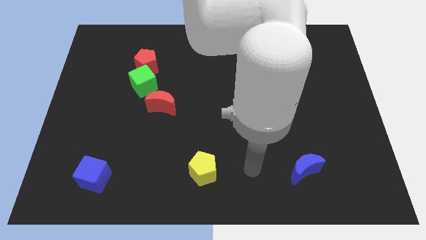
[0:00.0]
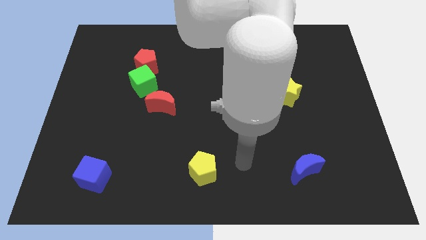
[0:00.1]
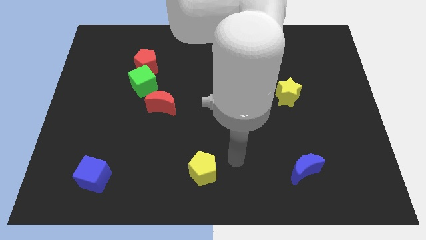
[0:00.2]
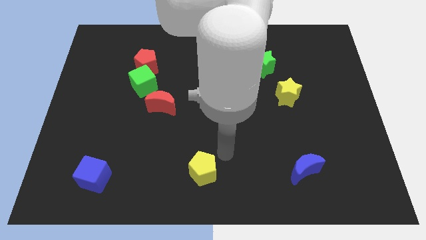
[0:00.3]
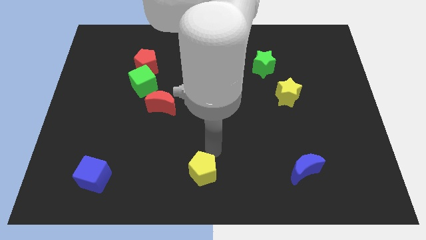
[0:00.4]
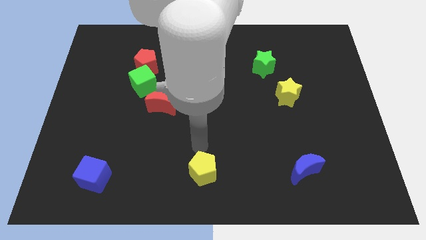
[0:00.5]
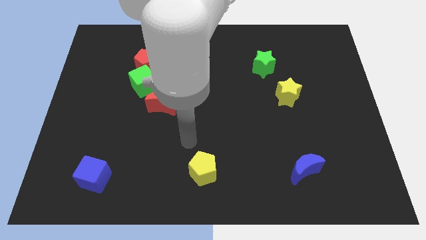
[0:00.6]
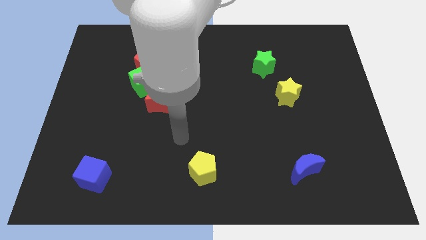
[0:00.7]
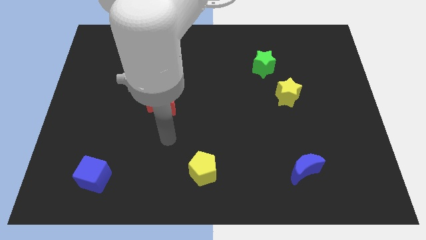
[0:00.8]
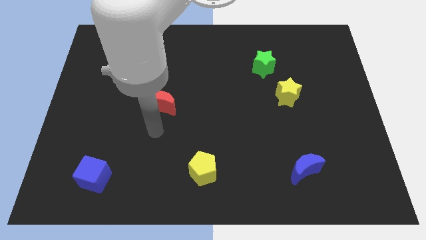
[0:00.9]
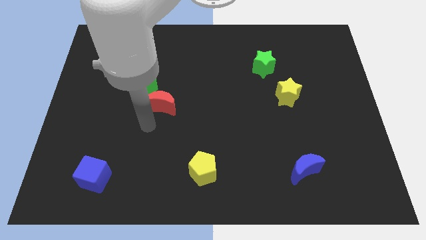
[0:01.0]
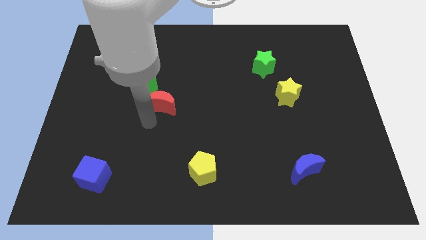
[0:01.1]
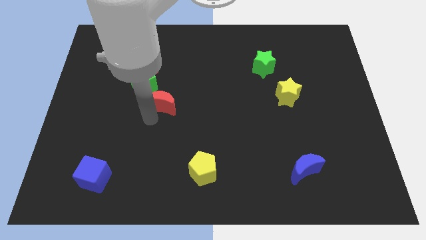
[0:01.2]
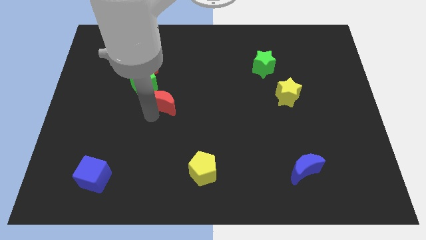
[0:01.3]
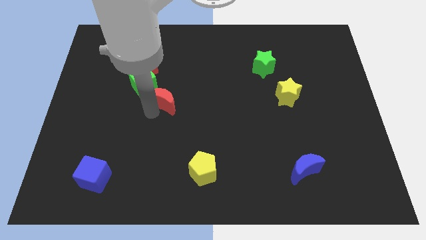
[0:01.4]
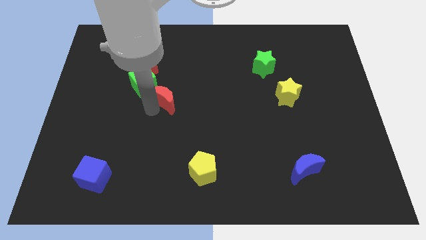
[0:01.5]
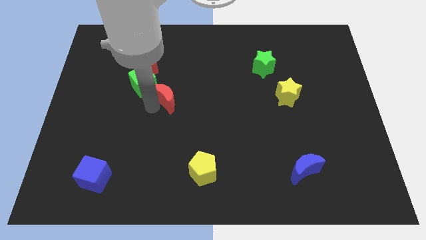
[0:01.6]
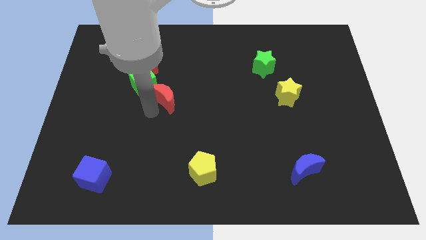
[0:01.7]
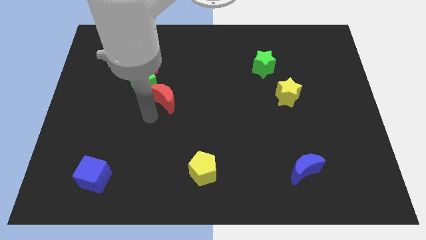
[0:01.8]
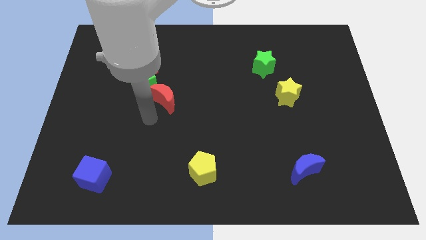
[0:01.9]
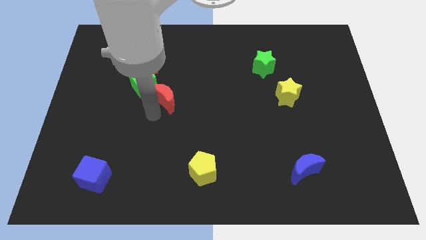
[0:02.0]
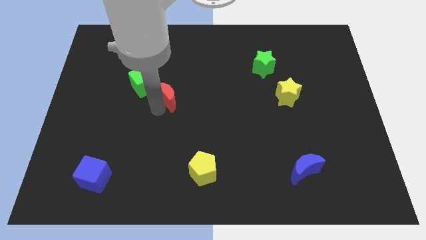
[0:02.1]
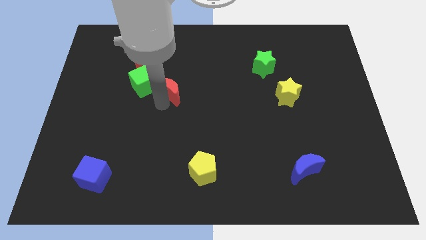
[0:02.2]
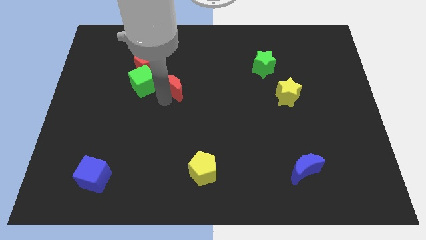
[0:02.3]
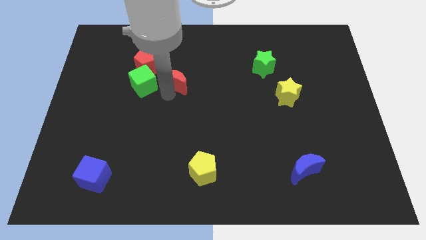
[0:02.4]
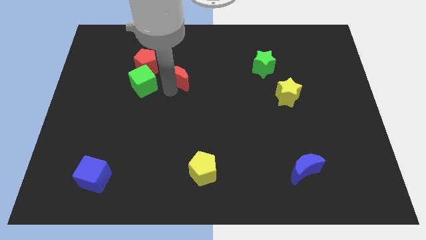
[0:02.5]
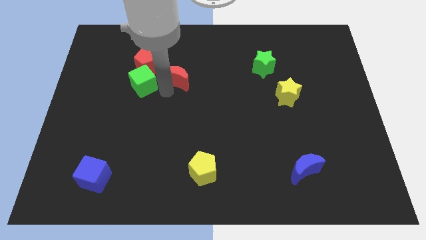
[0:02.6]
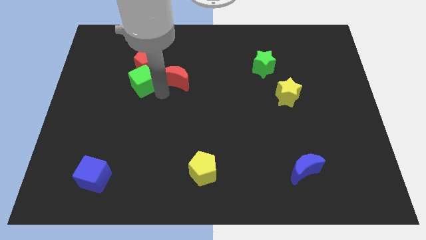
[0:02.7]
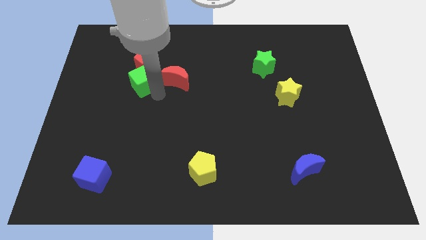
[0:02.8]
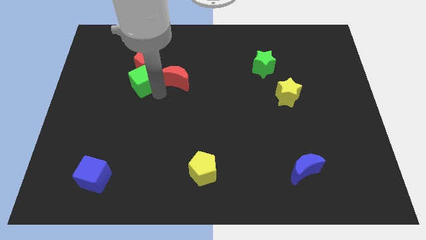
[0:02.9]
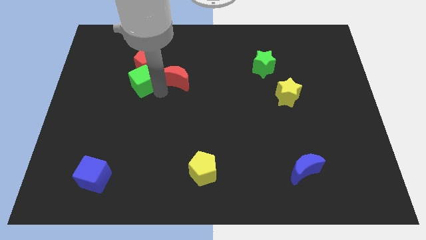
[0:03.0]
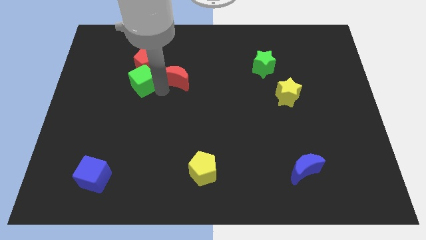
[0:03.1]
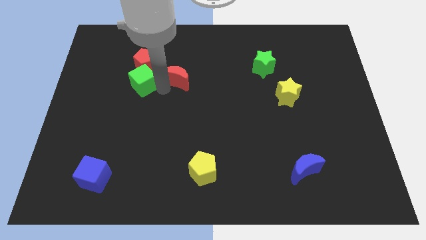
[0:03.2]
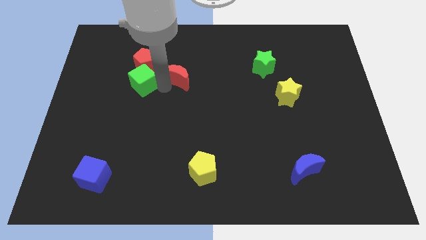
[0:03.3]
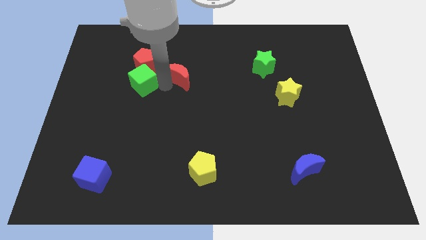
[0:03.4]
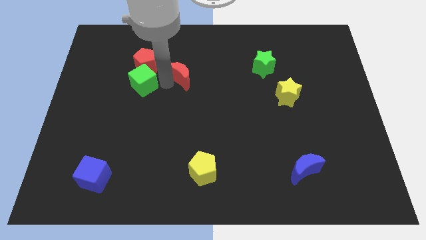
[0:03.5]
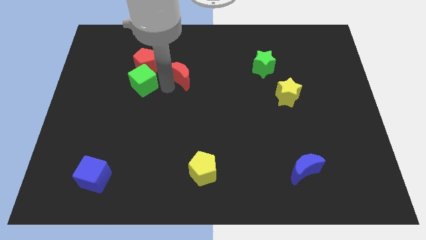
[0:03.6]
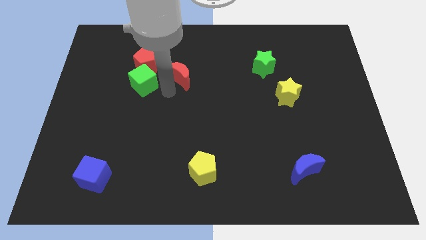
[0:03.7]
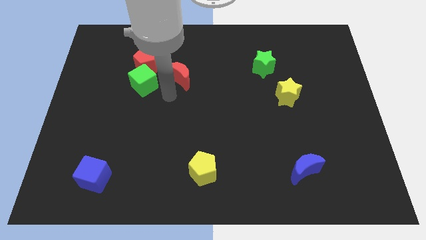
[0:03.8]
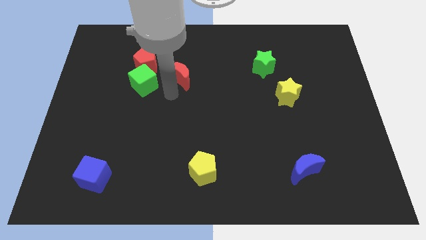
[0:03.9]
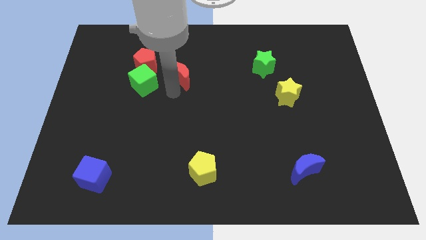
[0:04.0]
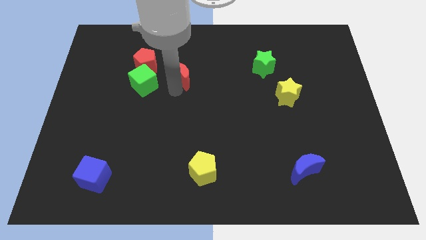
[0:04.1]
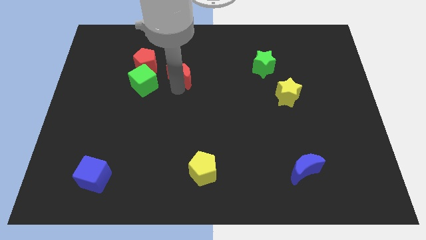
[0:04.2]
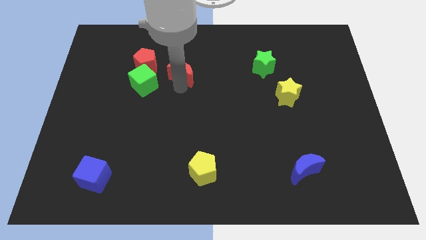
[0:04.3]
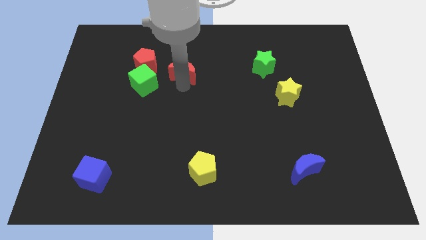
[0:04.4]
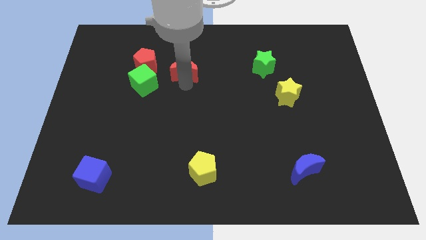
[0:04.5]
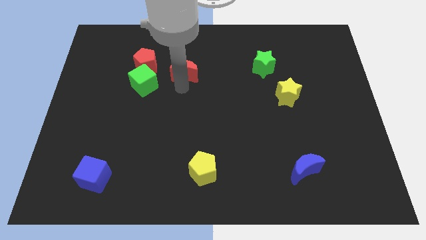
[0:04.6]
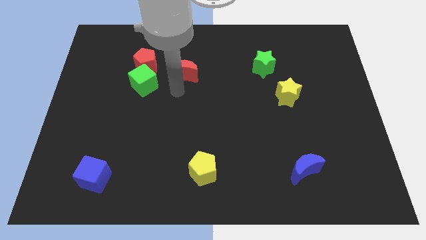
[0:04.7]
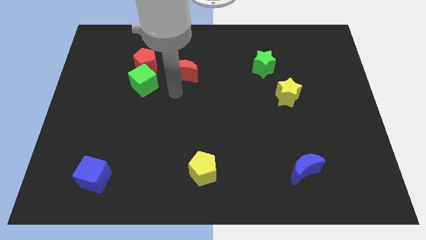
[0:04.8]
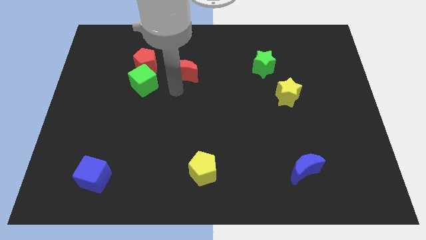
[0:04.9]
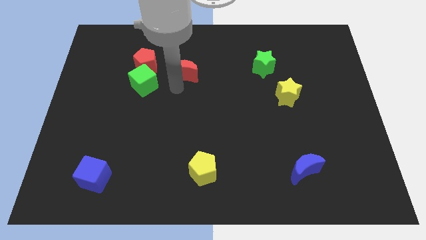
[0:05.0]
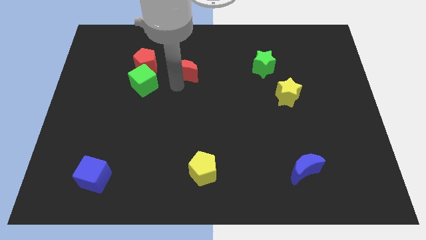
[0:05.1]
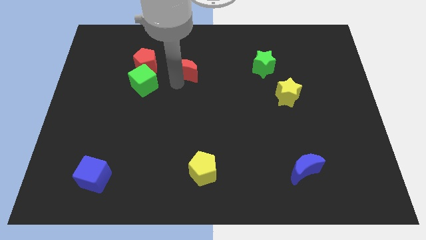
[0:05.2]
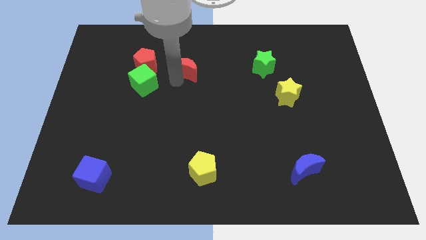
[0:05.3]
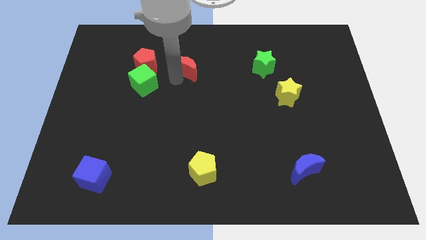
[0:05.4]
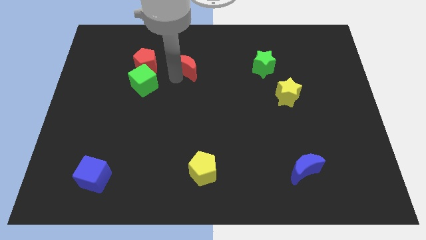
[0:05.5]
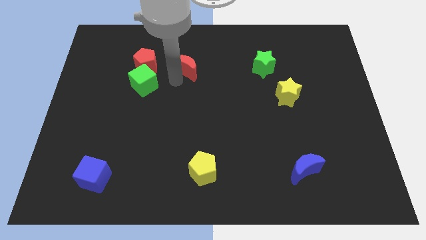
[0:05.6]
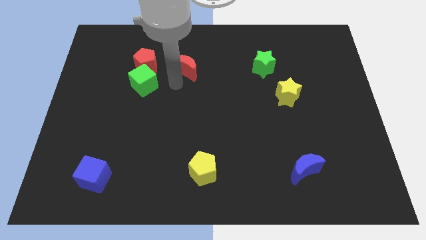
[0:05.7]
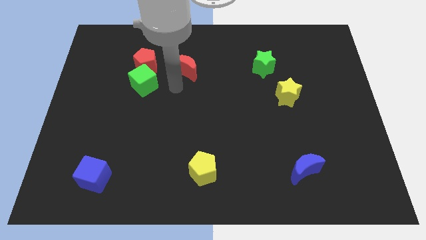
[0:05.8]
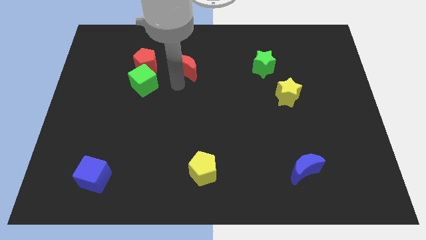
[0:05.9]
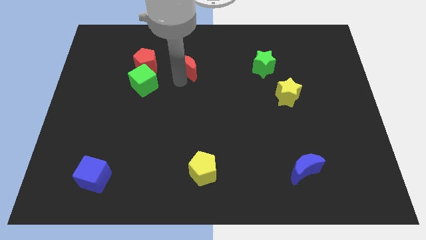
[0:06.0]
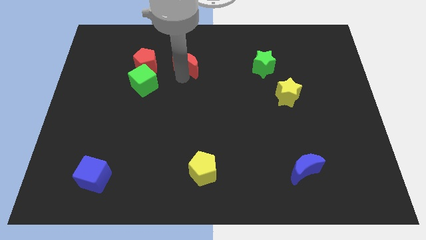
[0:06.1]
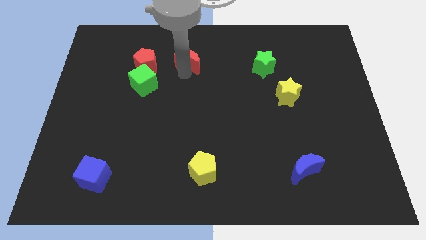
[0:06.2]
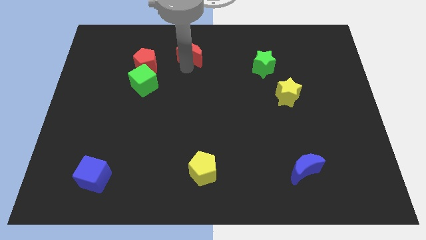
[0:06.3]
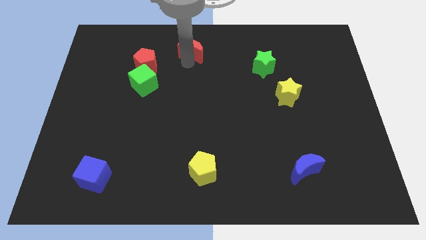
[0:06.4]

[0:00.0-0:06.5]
move the red moon to the towards your base

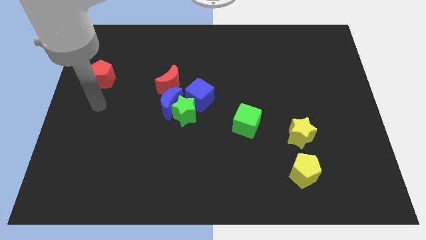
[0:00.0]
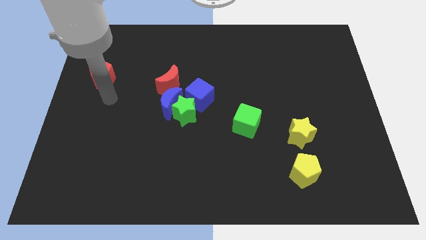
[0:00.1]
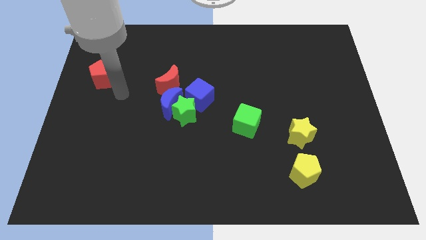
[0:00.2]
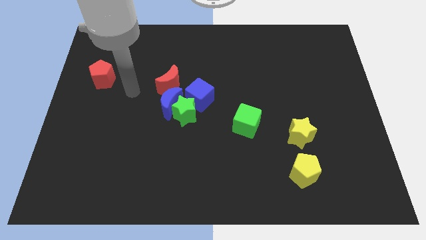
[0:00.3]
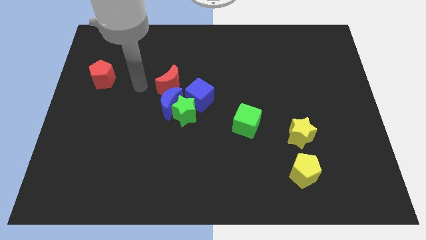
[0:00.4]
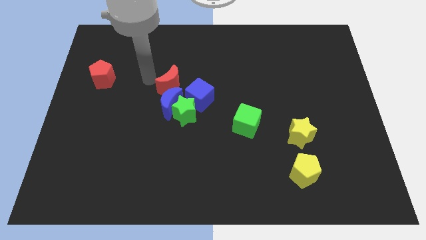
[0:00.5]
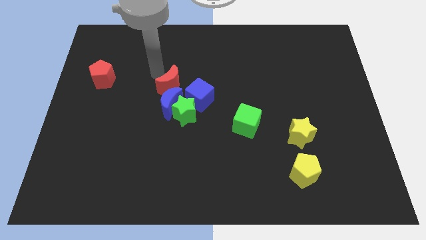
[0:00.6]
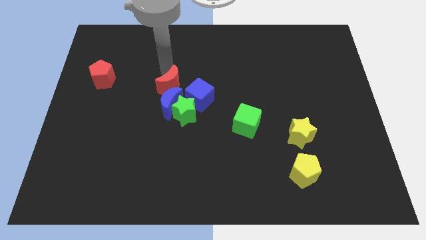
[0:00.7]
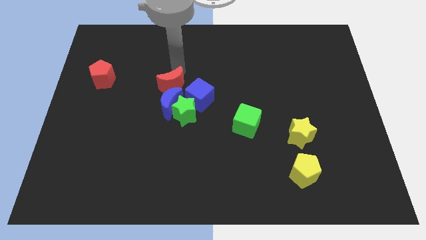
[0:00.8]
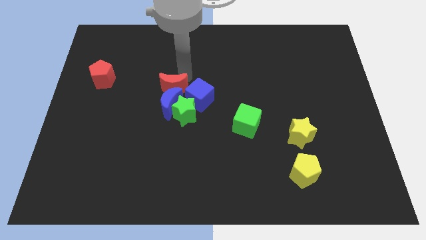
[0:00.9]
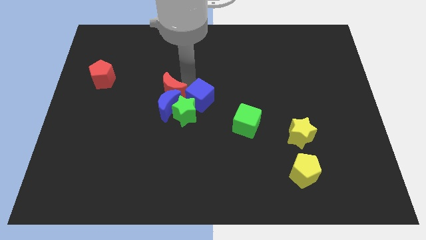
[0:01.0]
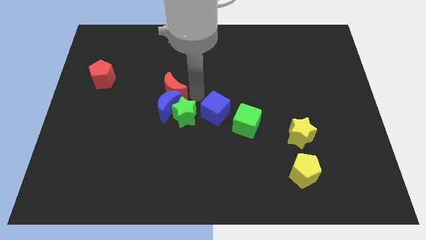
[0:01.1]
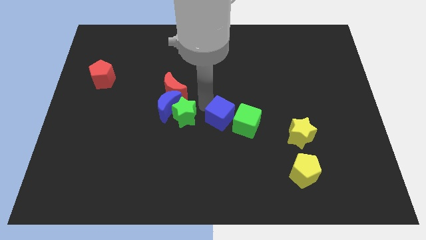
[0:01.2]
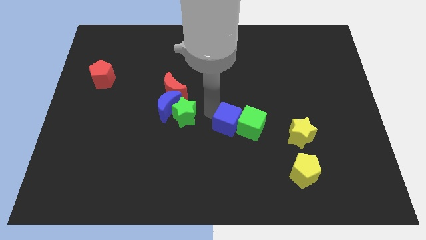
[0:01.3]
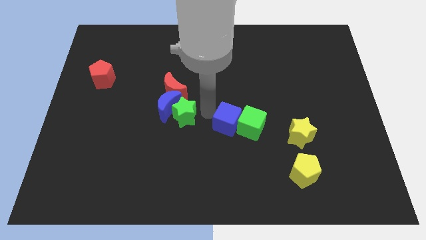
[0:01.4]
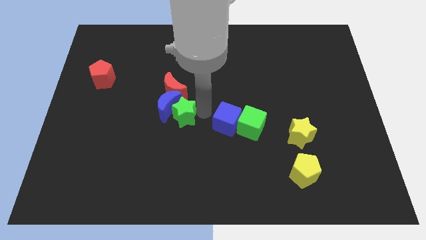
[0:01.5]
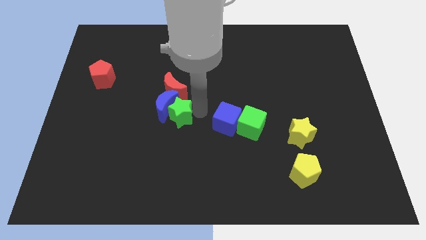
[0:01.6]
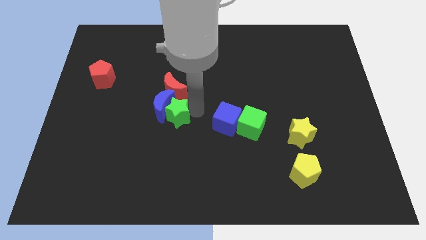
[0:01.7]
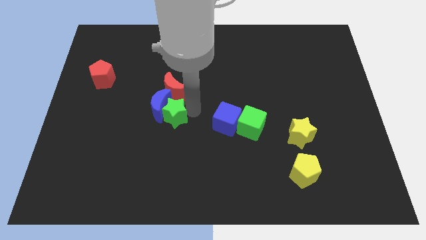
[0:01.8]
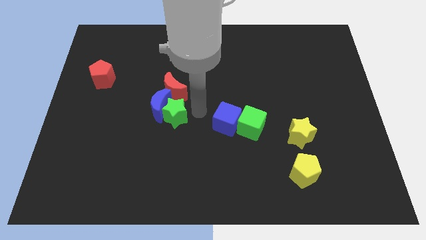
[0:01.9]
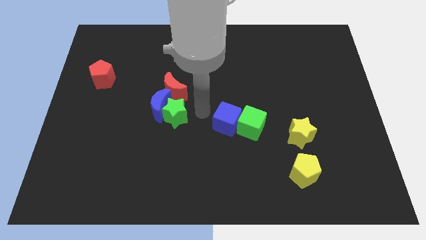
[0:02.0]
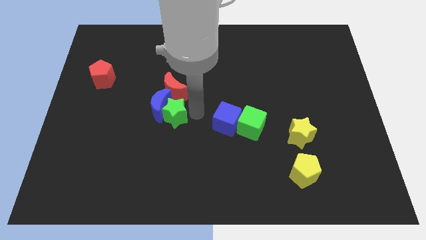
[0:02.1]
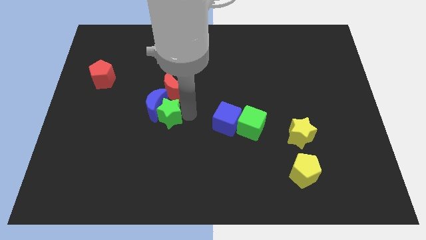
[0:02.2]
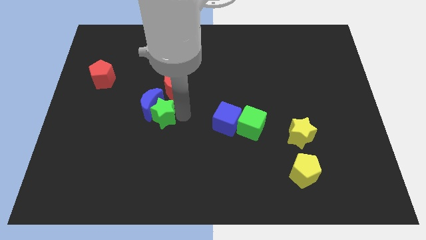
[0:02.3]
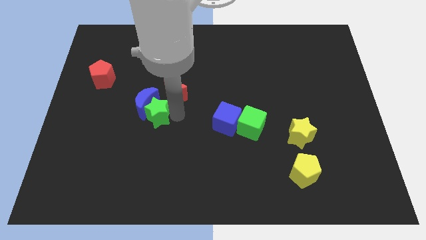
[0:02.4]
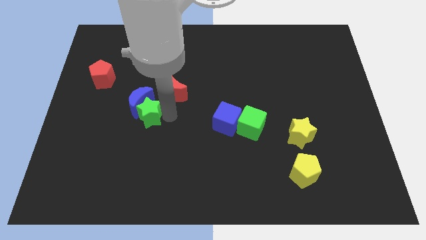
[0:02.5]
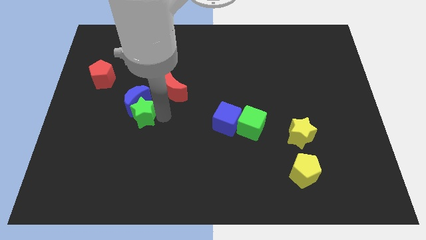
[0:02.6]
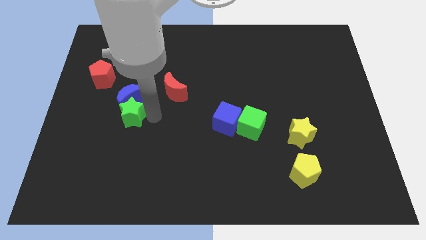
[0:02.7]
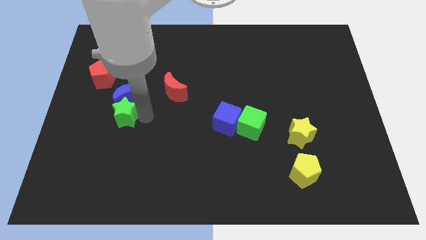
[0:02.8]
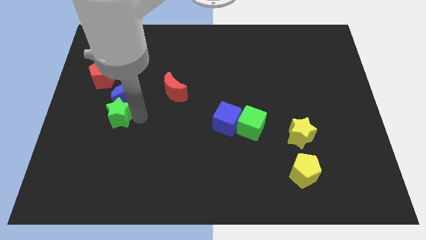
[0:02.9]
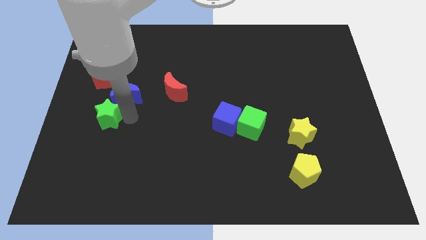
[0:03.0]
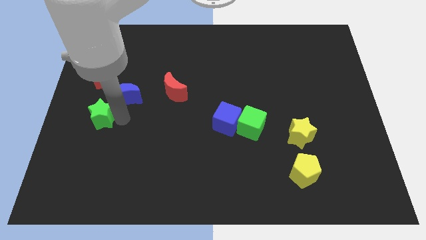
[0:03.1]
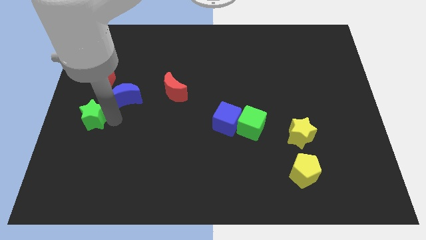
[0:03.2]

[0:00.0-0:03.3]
push the green star to the left side
